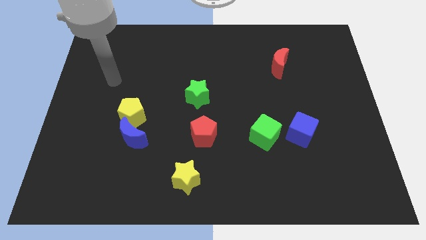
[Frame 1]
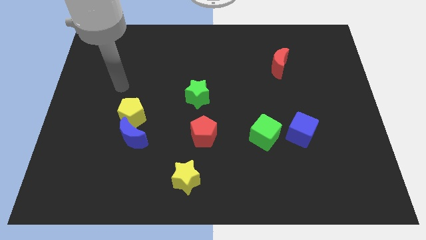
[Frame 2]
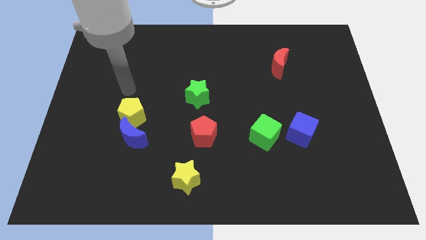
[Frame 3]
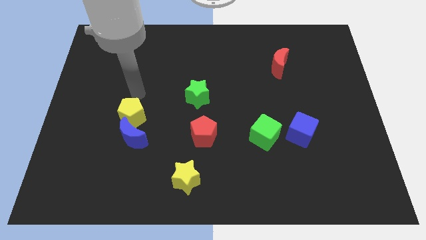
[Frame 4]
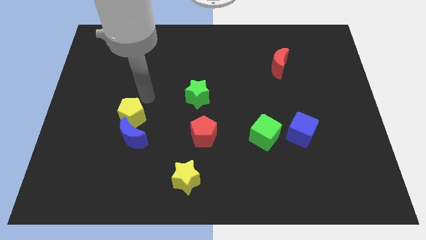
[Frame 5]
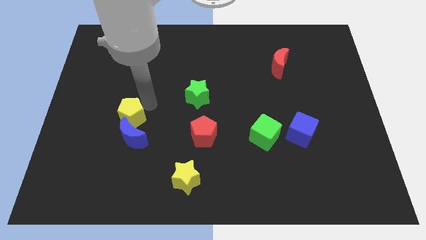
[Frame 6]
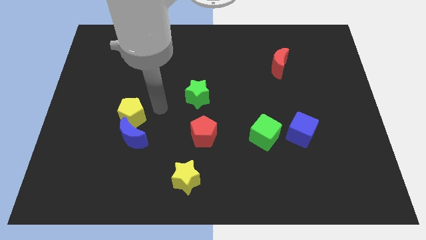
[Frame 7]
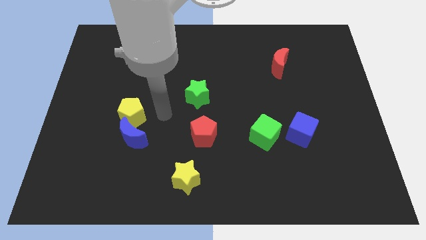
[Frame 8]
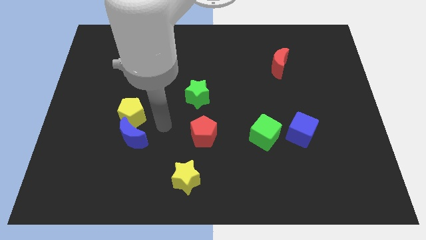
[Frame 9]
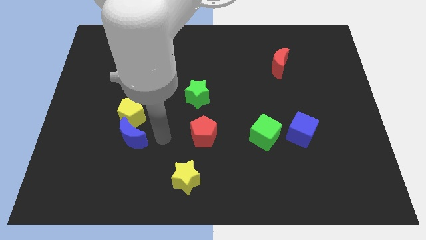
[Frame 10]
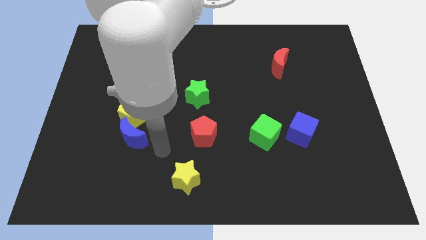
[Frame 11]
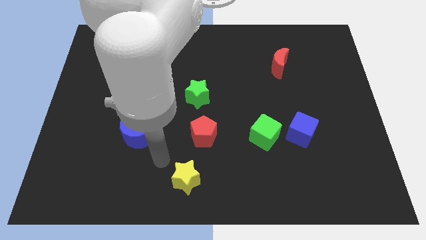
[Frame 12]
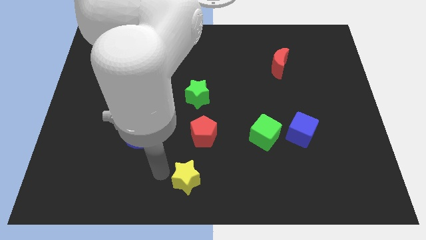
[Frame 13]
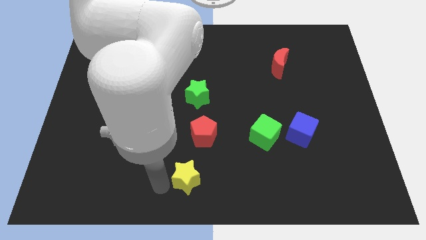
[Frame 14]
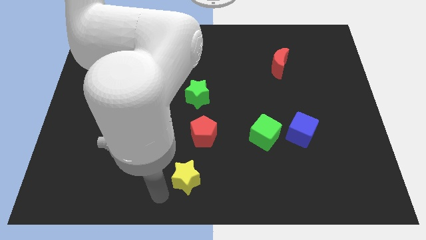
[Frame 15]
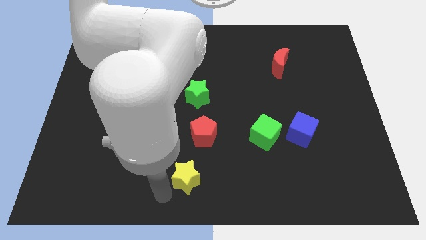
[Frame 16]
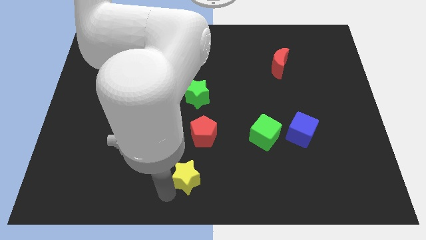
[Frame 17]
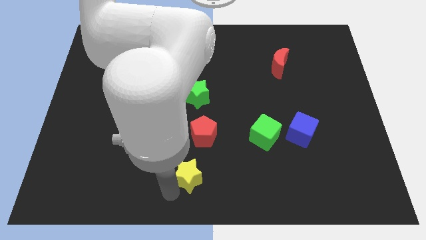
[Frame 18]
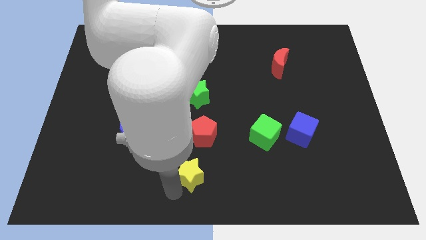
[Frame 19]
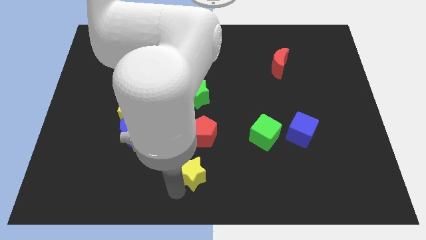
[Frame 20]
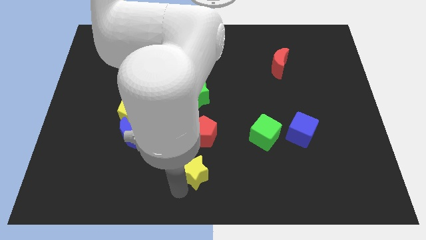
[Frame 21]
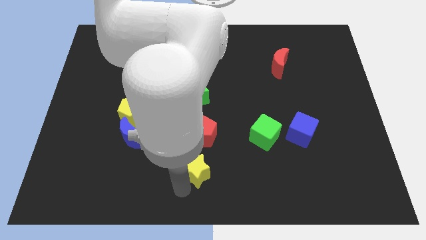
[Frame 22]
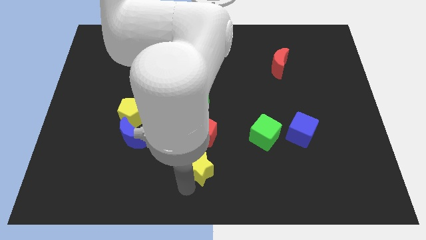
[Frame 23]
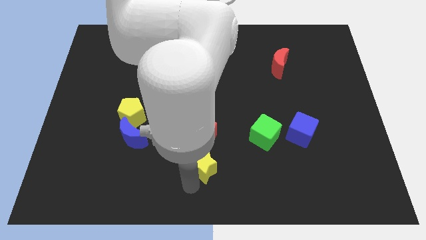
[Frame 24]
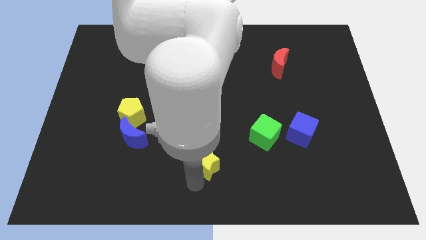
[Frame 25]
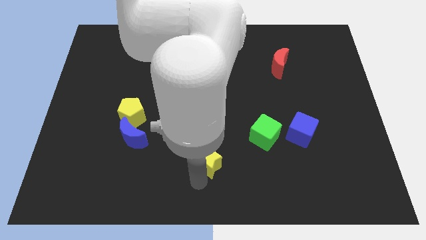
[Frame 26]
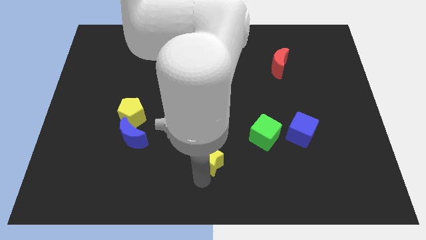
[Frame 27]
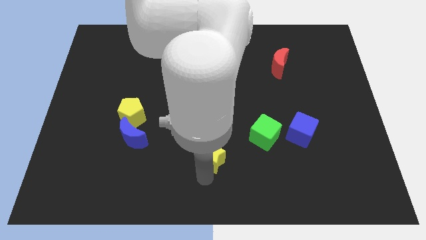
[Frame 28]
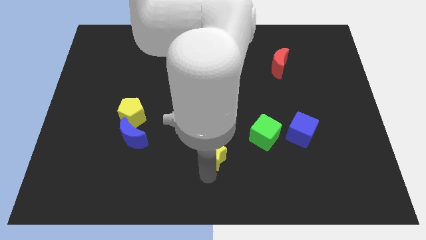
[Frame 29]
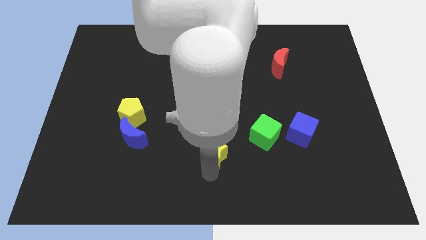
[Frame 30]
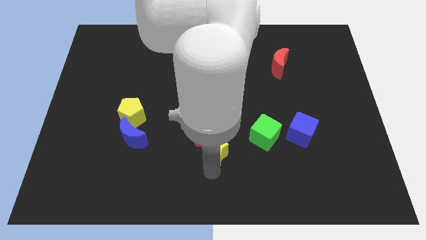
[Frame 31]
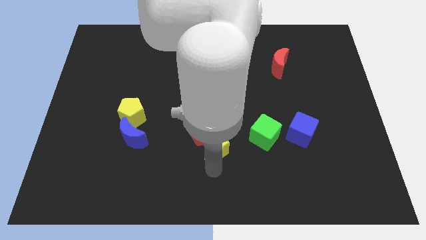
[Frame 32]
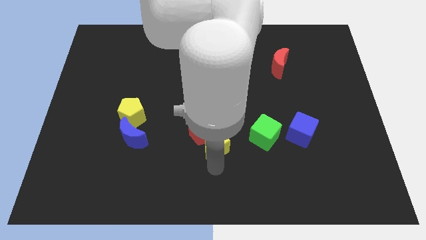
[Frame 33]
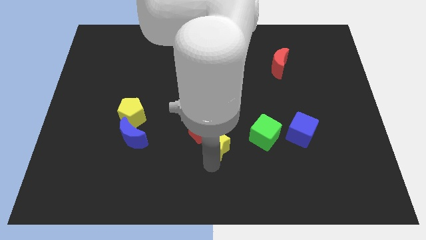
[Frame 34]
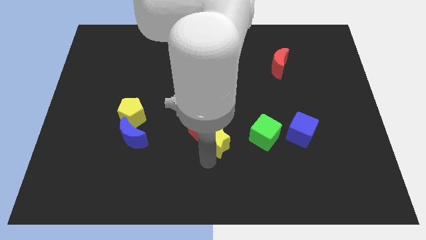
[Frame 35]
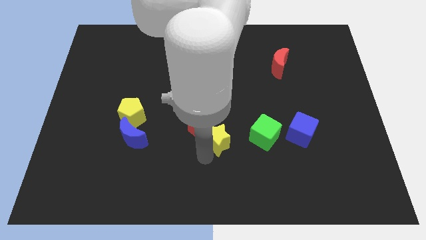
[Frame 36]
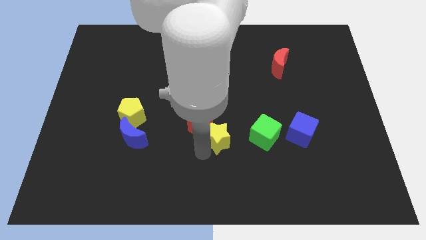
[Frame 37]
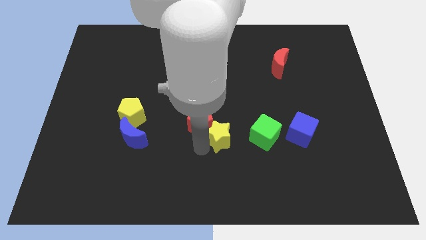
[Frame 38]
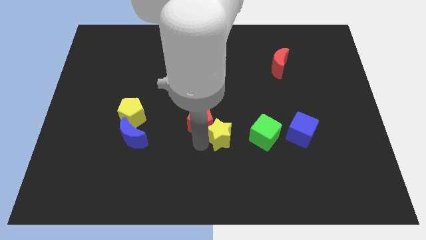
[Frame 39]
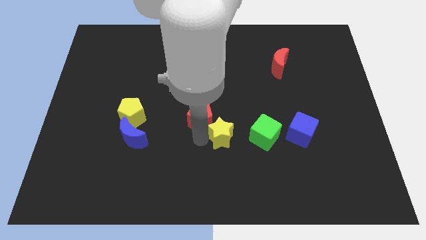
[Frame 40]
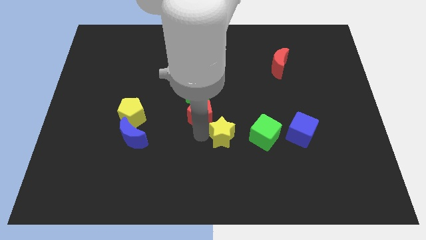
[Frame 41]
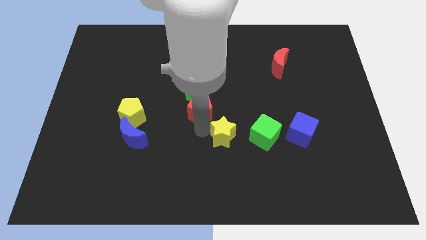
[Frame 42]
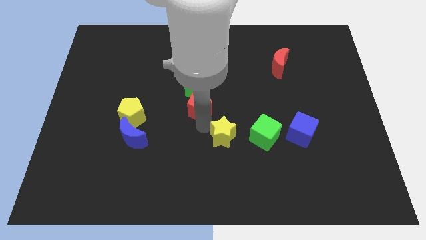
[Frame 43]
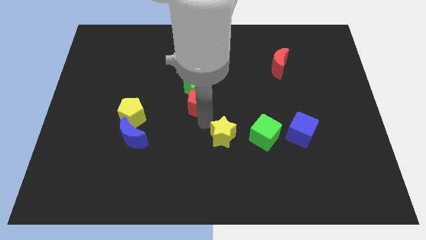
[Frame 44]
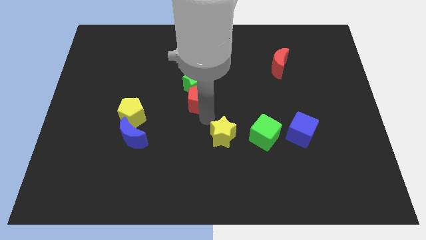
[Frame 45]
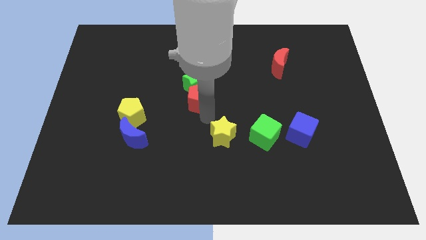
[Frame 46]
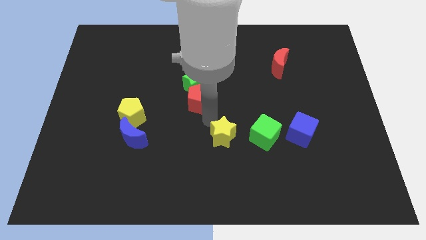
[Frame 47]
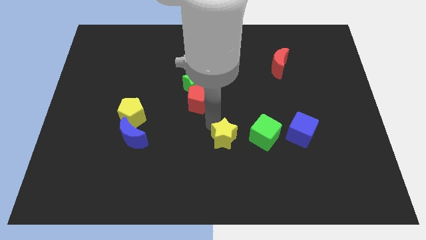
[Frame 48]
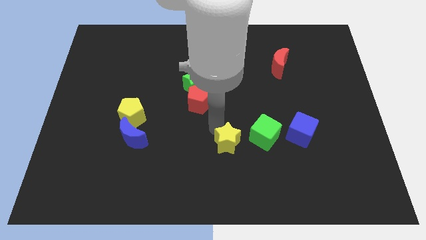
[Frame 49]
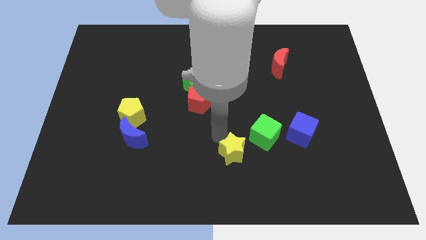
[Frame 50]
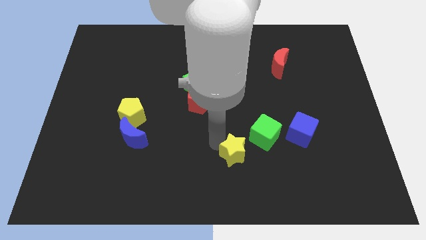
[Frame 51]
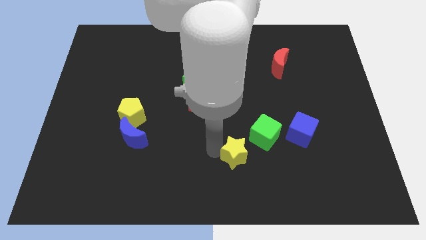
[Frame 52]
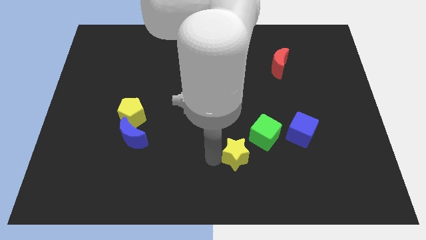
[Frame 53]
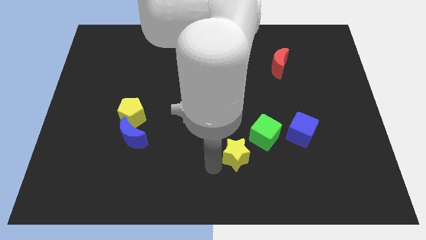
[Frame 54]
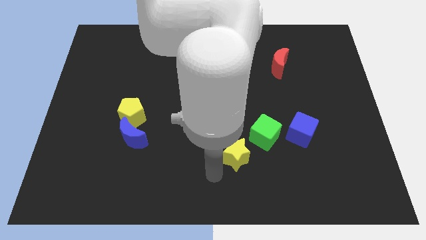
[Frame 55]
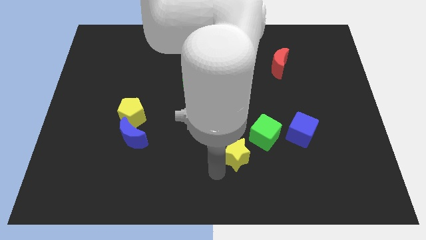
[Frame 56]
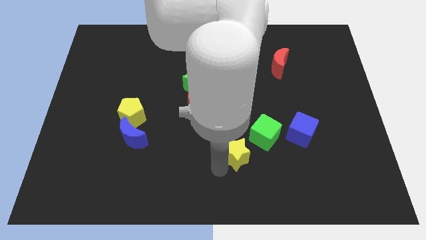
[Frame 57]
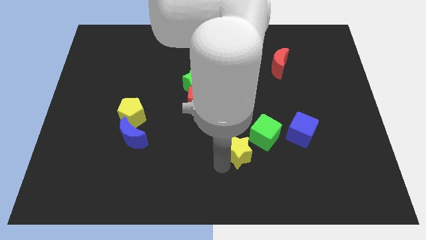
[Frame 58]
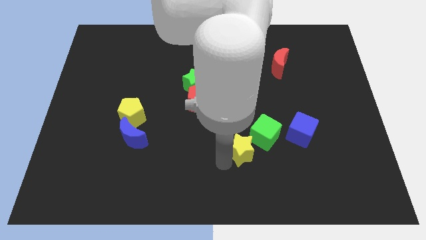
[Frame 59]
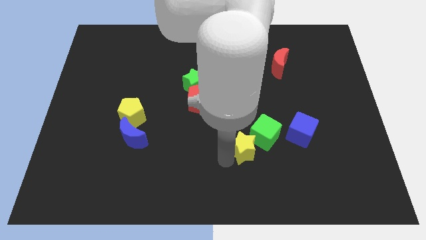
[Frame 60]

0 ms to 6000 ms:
move the yellow star next to the green cube

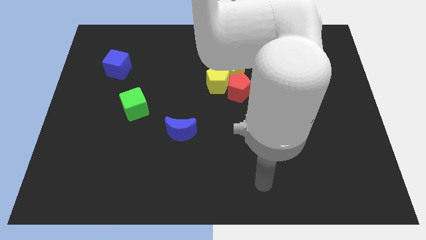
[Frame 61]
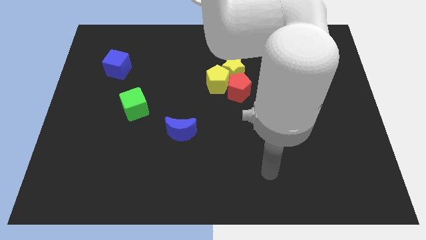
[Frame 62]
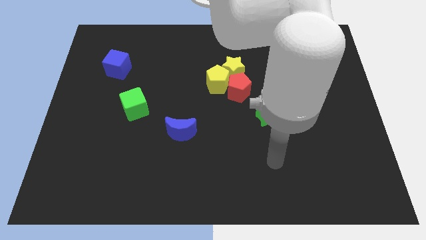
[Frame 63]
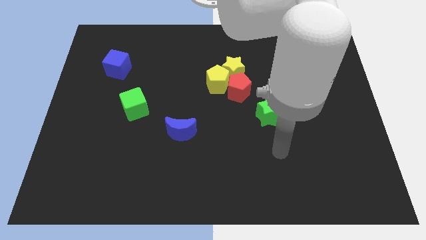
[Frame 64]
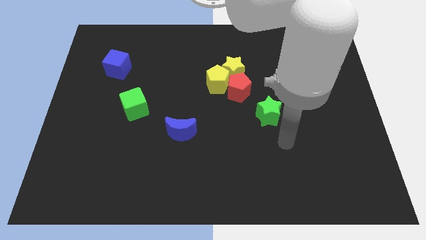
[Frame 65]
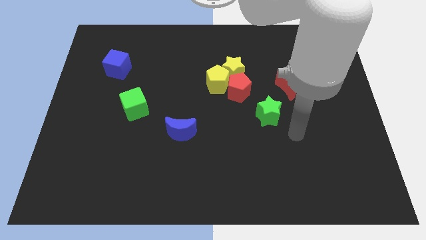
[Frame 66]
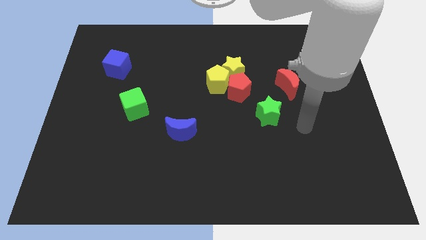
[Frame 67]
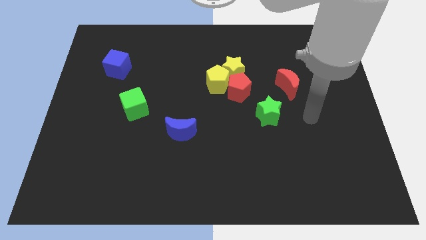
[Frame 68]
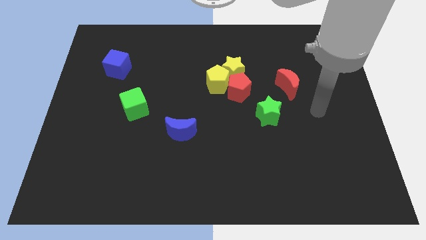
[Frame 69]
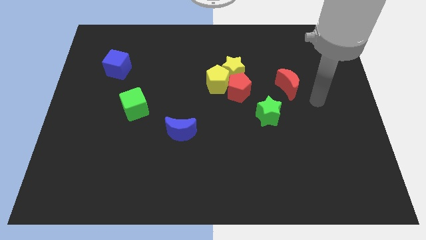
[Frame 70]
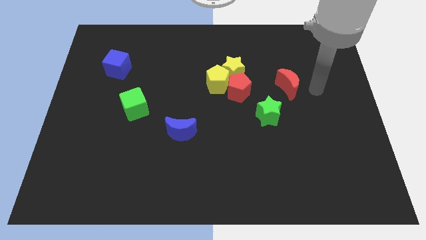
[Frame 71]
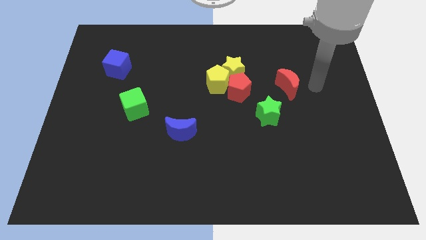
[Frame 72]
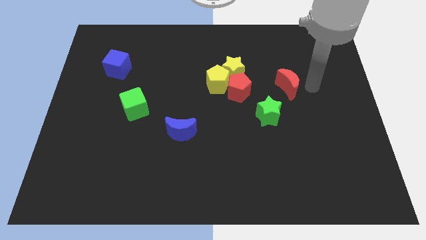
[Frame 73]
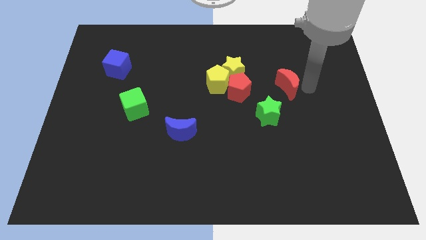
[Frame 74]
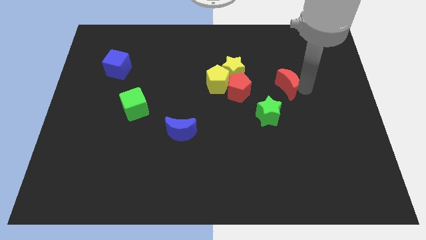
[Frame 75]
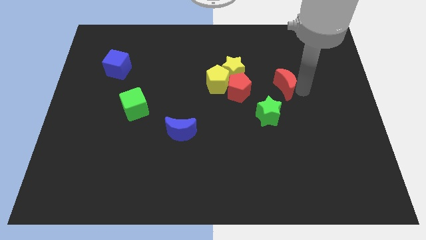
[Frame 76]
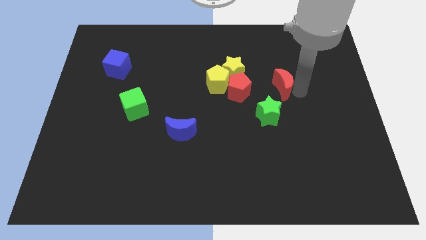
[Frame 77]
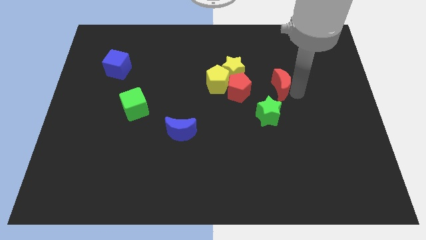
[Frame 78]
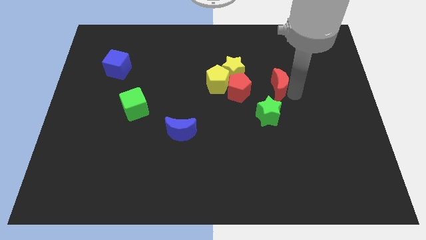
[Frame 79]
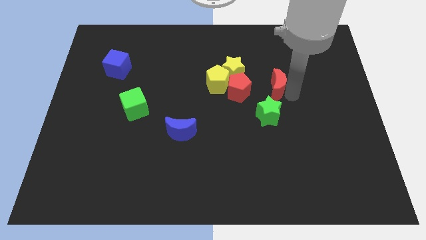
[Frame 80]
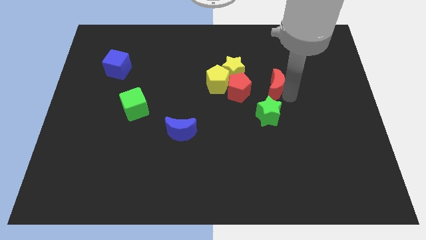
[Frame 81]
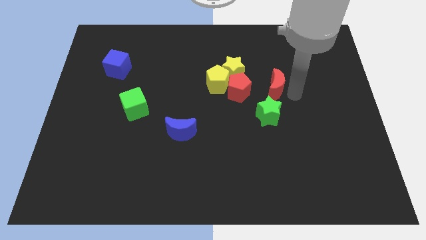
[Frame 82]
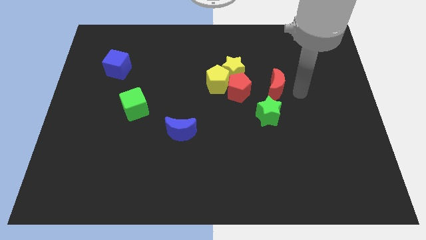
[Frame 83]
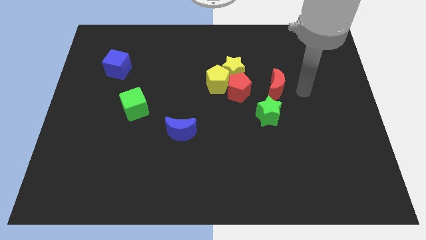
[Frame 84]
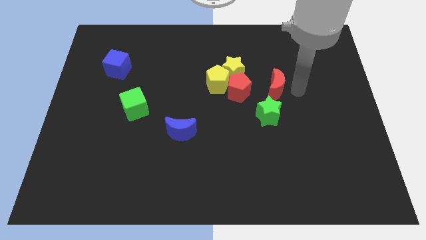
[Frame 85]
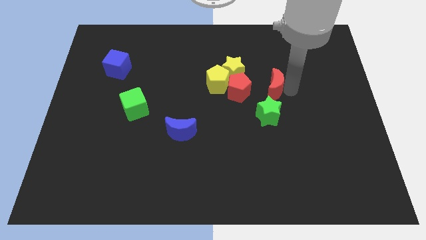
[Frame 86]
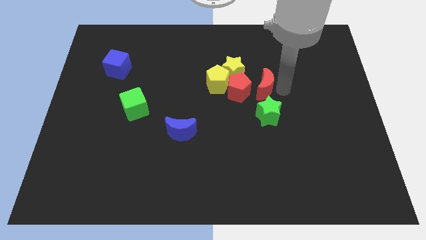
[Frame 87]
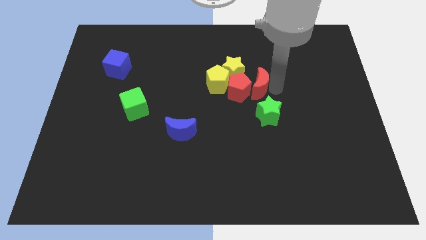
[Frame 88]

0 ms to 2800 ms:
slide the red moon next to the red pentagon
